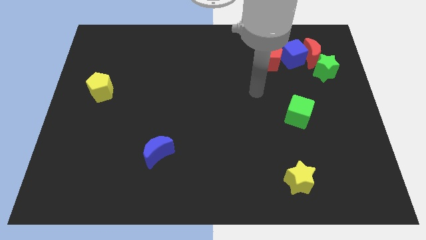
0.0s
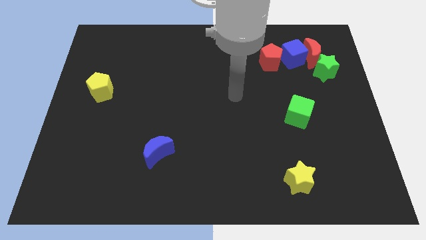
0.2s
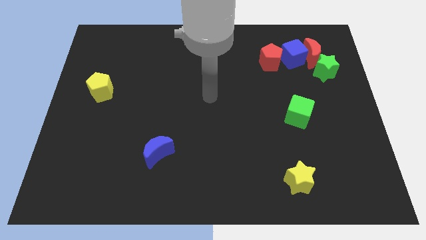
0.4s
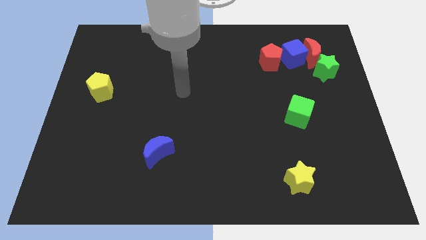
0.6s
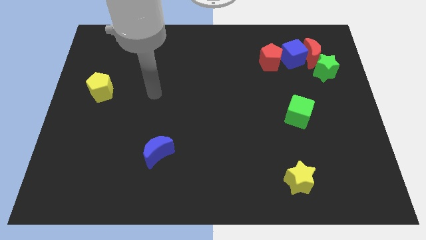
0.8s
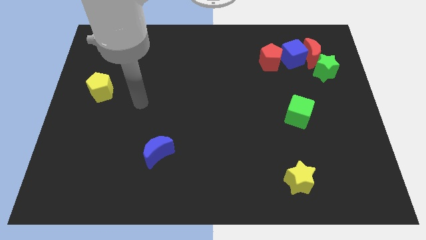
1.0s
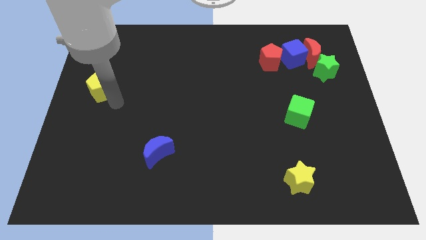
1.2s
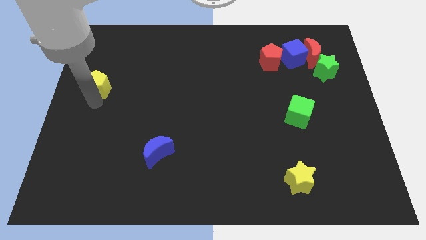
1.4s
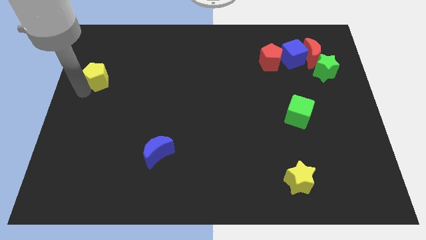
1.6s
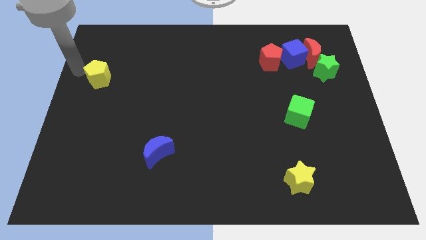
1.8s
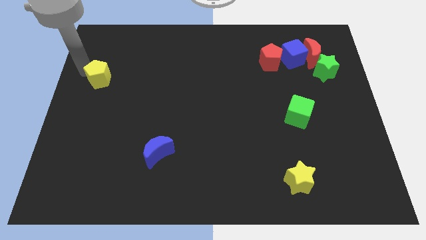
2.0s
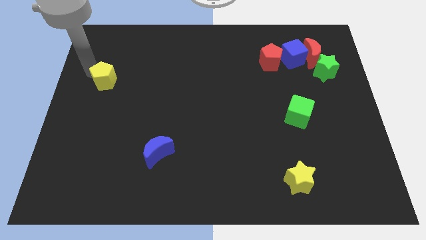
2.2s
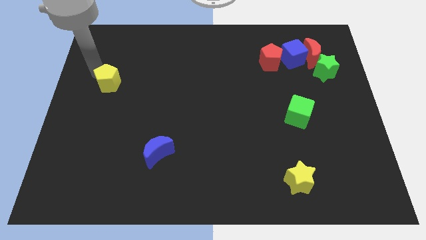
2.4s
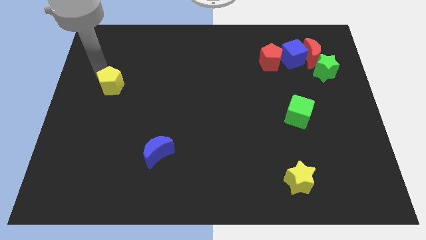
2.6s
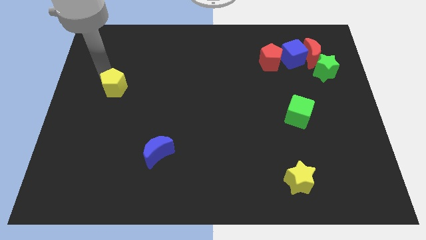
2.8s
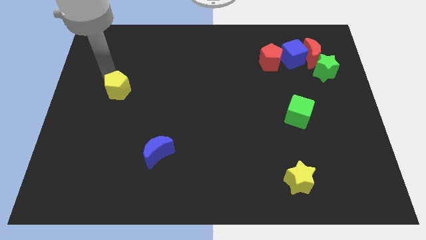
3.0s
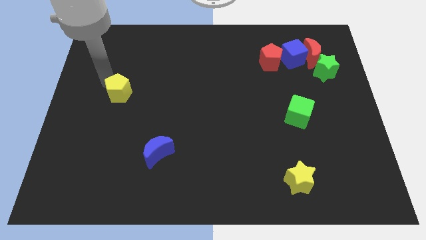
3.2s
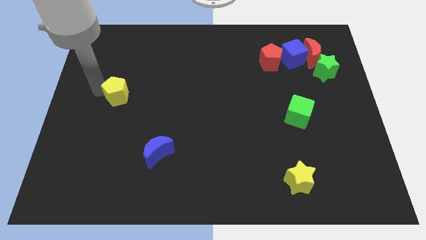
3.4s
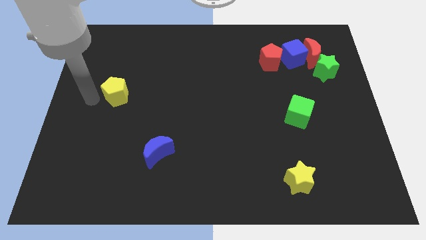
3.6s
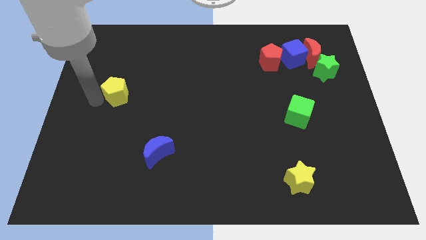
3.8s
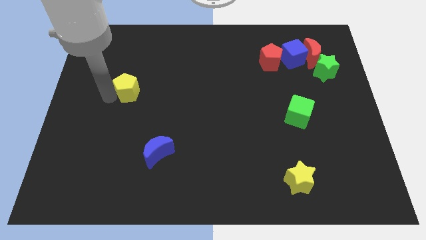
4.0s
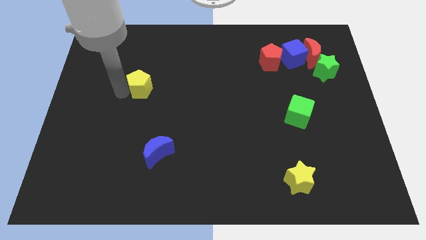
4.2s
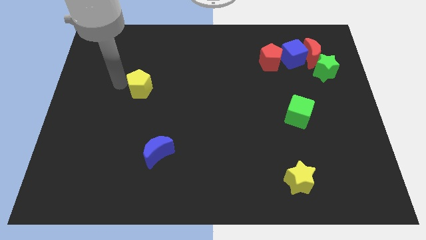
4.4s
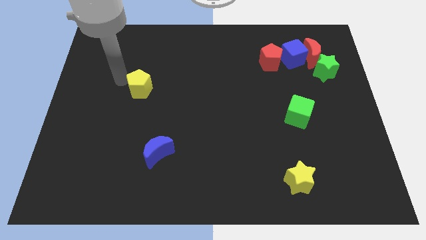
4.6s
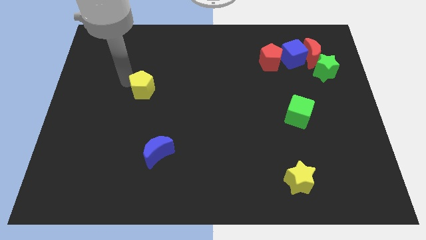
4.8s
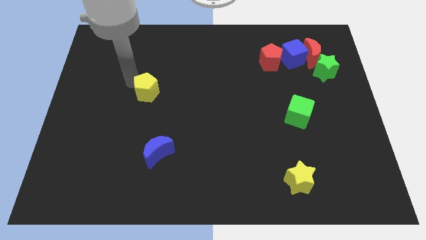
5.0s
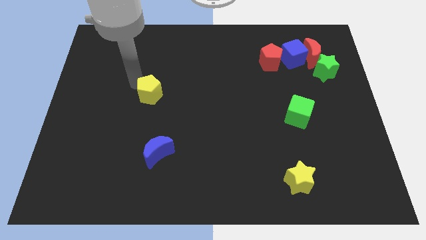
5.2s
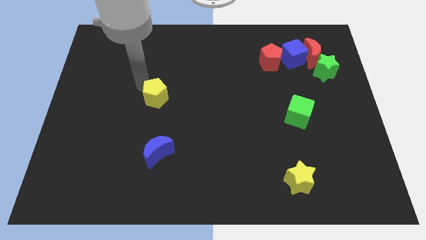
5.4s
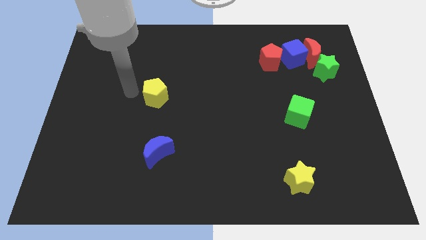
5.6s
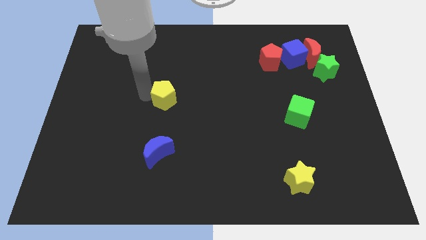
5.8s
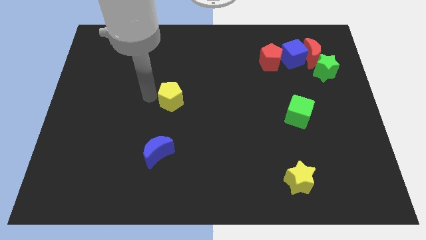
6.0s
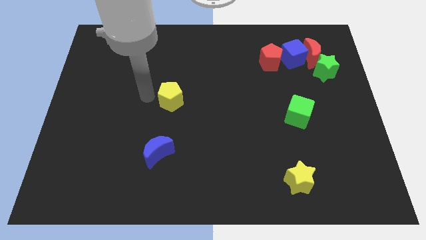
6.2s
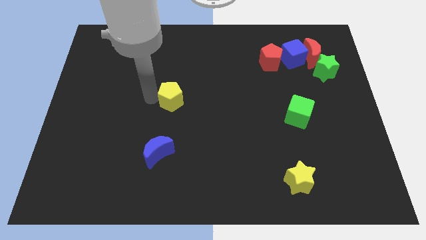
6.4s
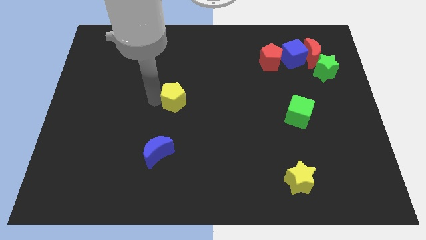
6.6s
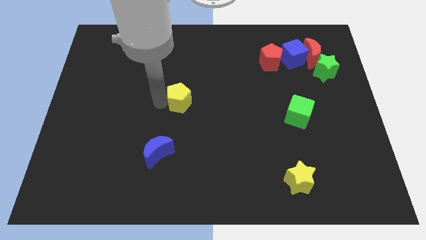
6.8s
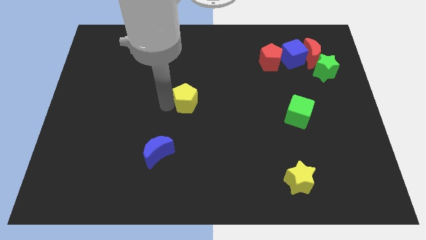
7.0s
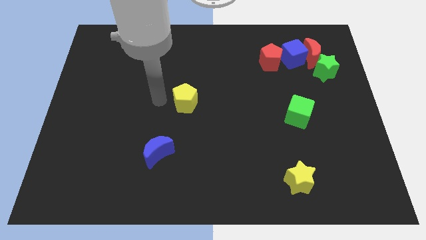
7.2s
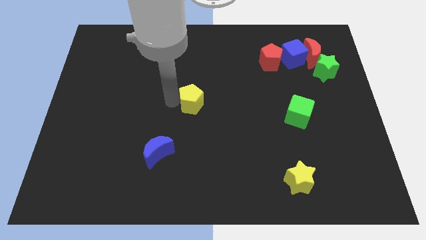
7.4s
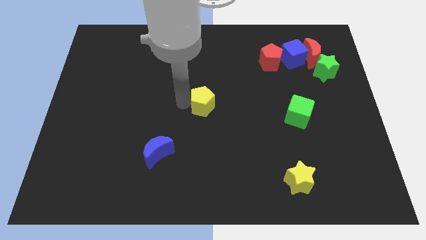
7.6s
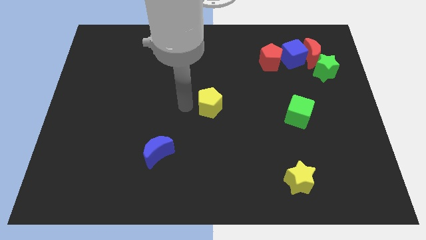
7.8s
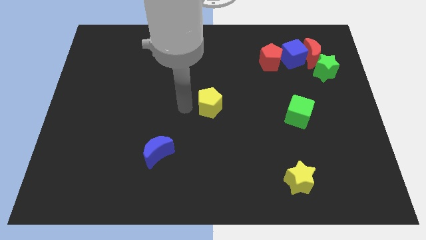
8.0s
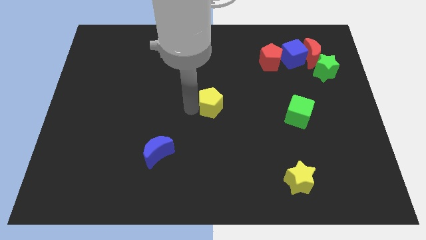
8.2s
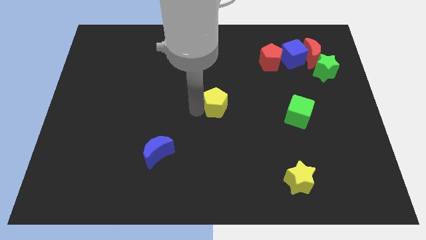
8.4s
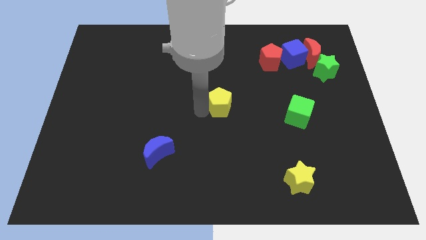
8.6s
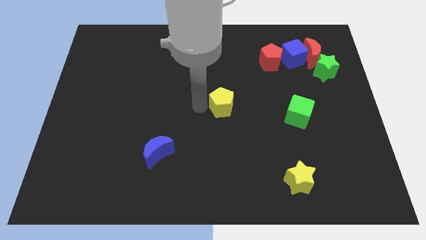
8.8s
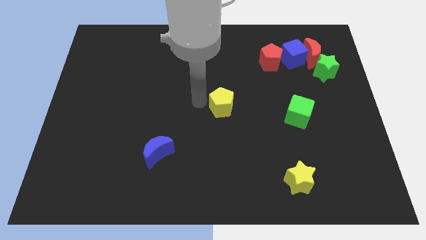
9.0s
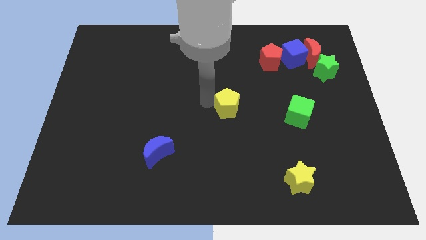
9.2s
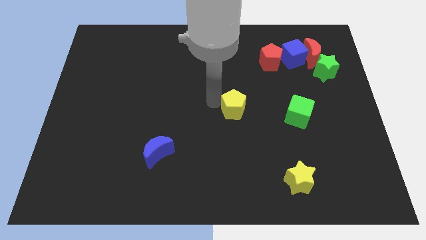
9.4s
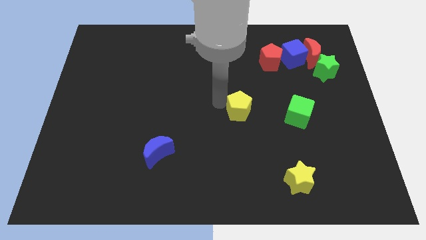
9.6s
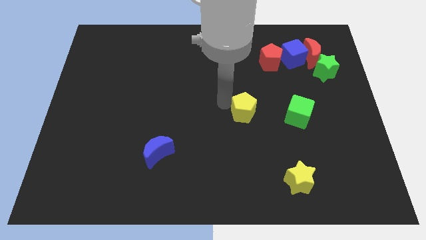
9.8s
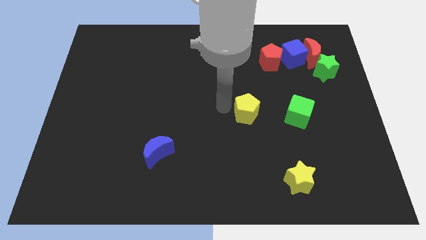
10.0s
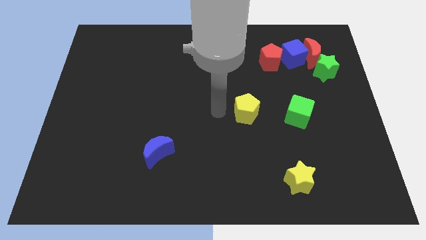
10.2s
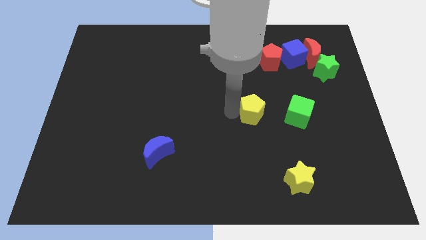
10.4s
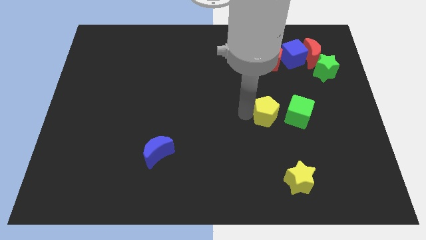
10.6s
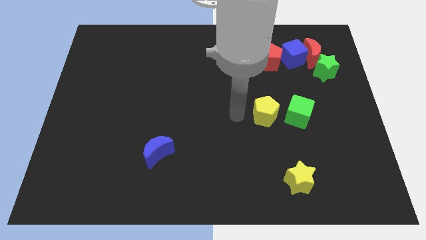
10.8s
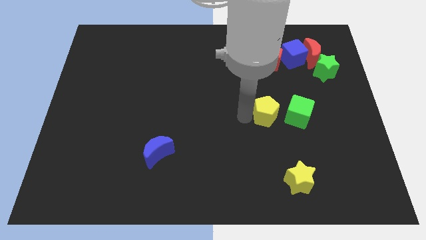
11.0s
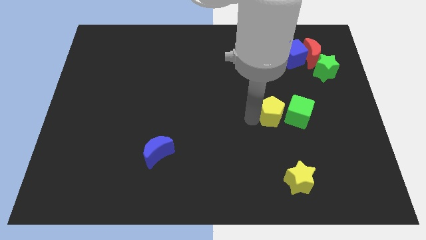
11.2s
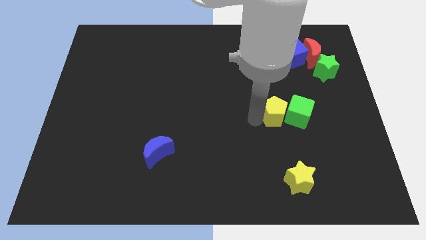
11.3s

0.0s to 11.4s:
push the yellow pentagon to the green cube

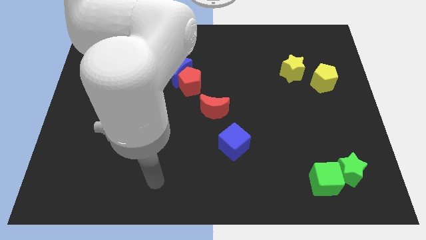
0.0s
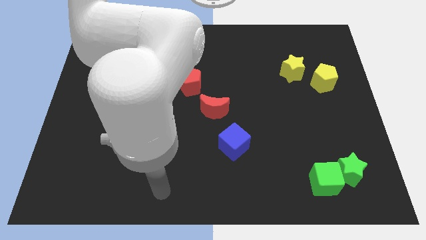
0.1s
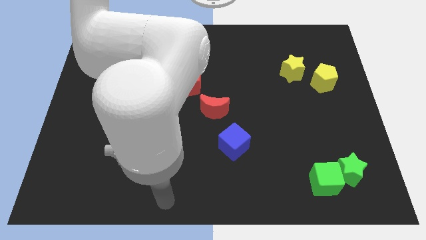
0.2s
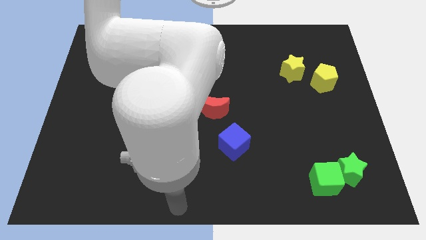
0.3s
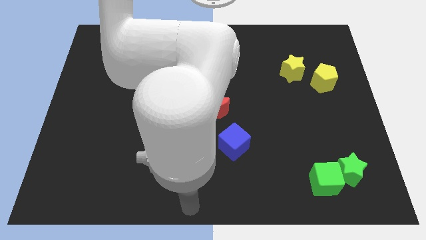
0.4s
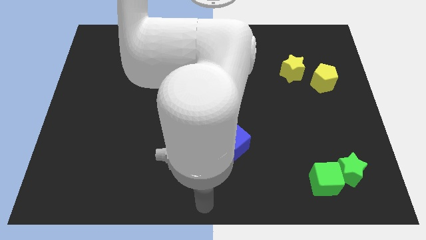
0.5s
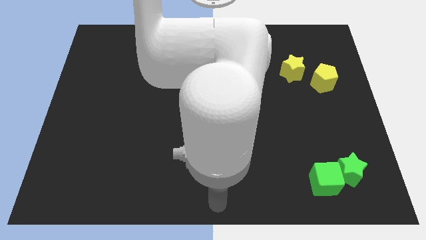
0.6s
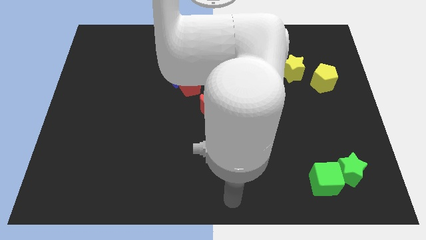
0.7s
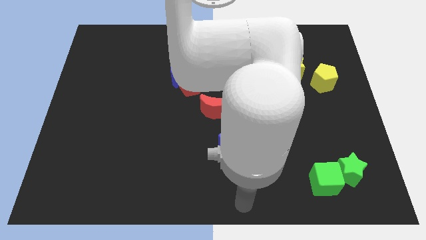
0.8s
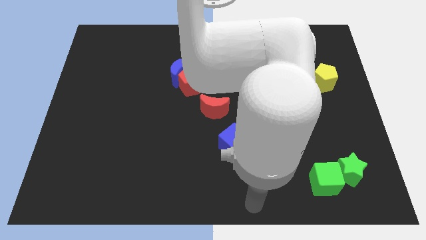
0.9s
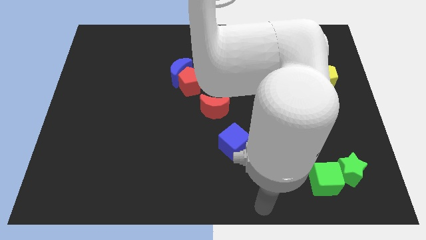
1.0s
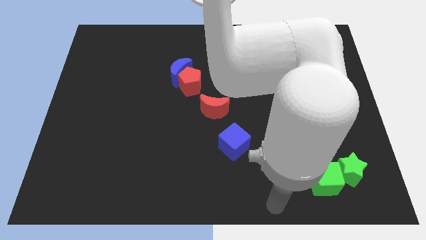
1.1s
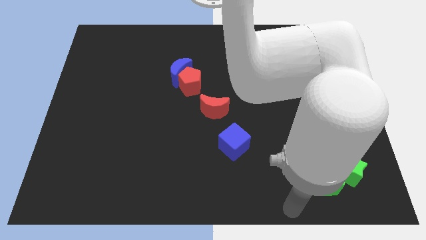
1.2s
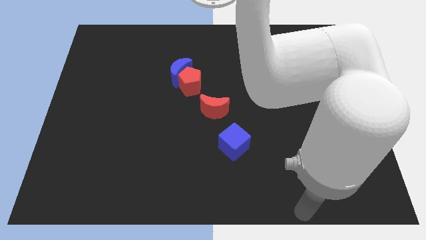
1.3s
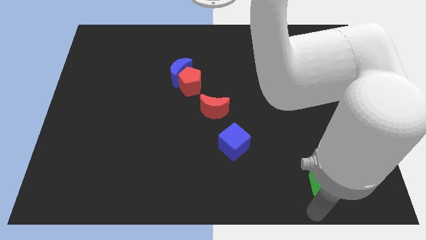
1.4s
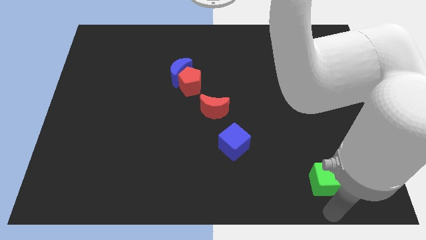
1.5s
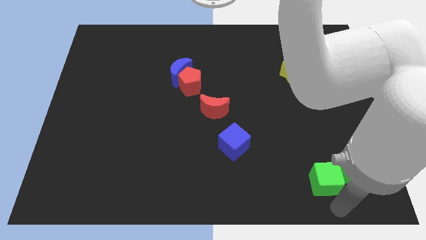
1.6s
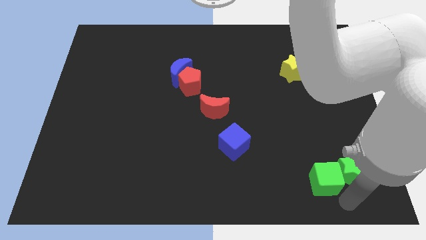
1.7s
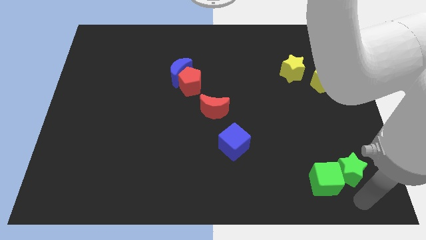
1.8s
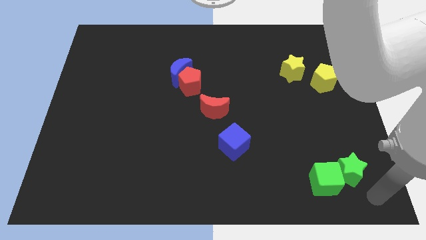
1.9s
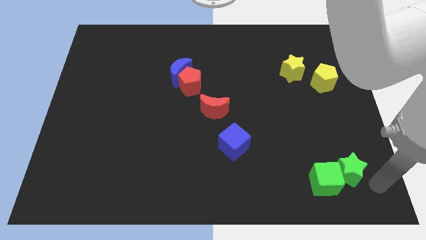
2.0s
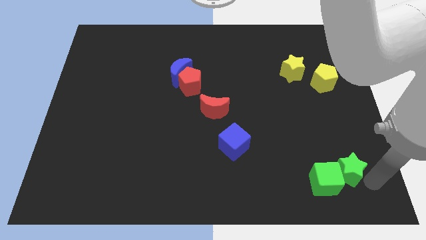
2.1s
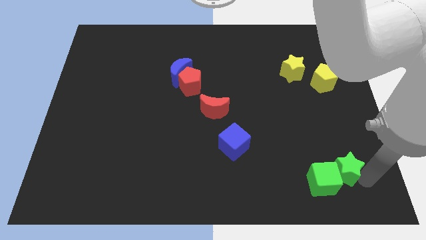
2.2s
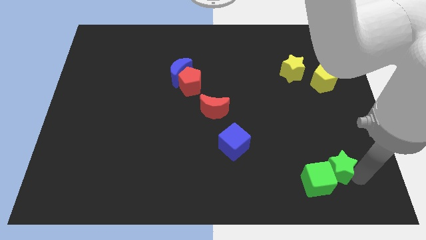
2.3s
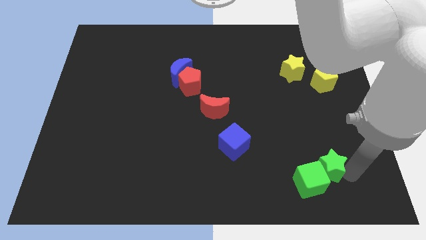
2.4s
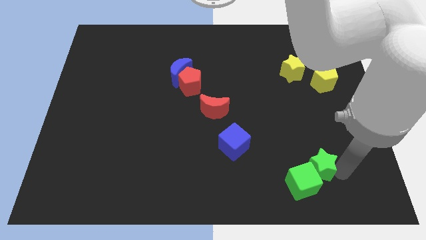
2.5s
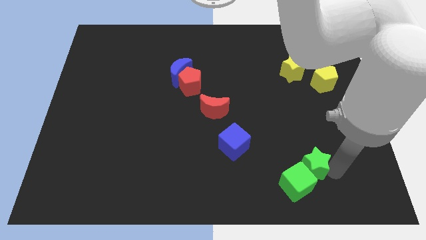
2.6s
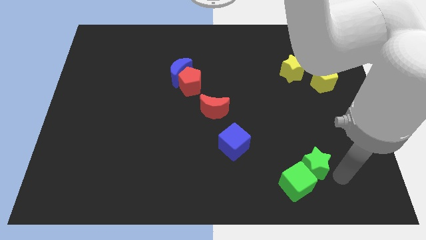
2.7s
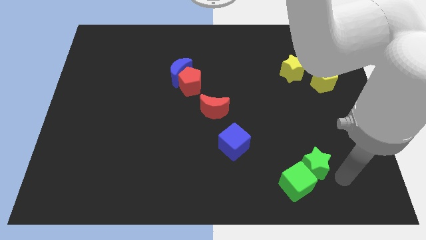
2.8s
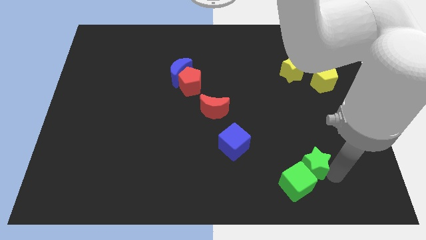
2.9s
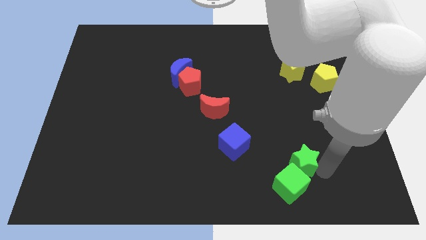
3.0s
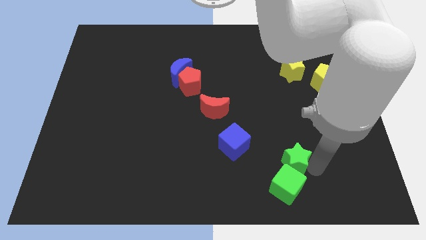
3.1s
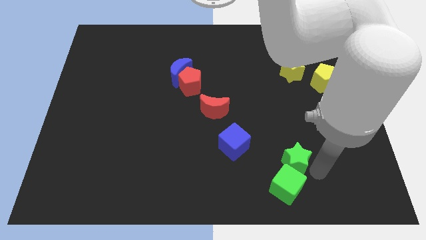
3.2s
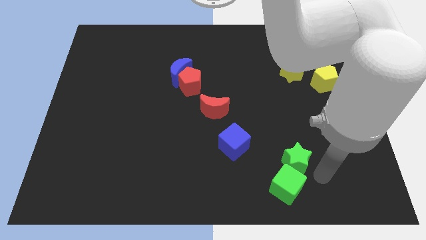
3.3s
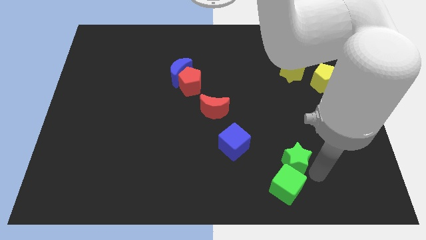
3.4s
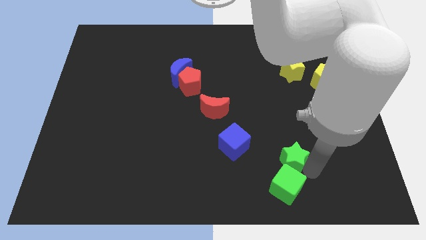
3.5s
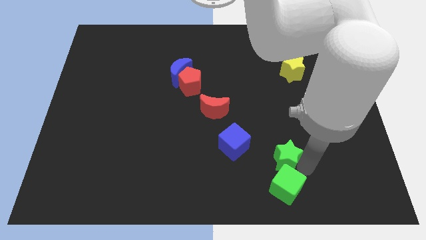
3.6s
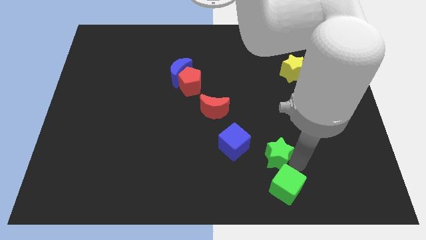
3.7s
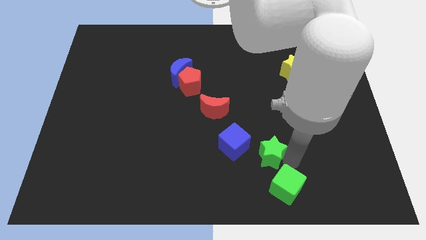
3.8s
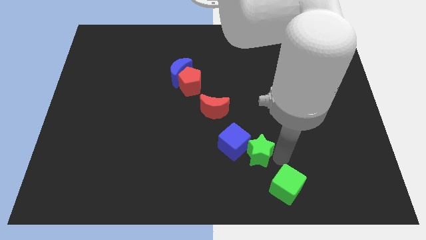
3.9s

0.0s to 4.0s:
slide the green star towards the blue cube
